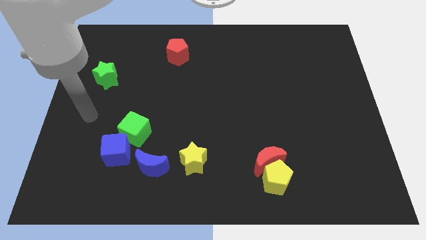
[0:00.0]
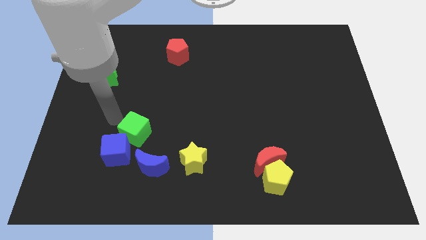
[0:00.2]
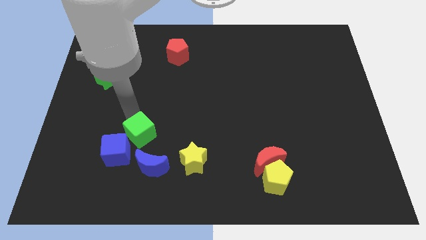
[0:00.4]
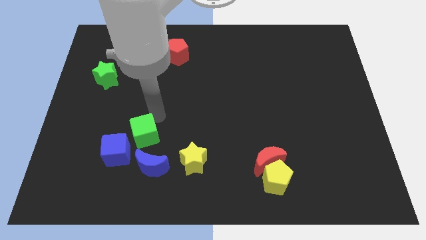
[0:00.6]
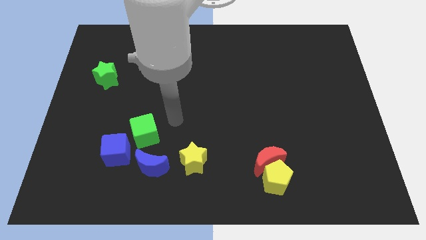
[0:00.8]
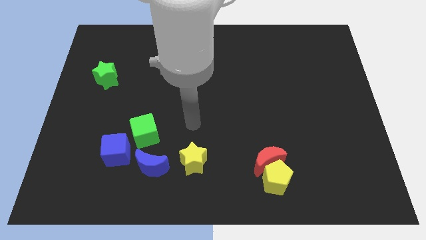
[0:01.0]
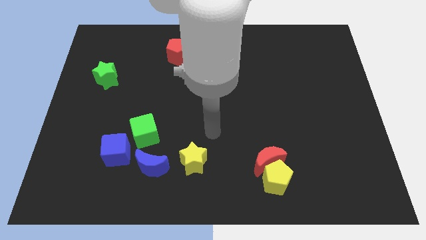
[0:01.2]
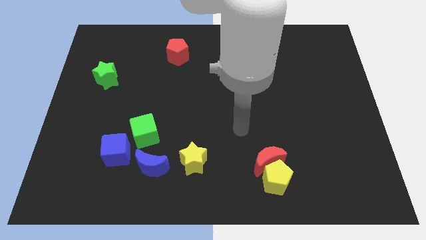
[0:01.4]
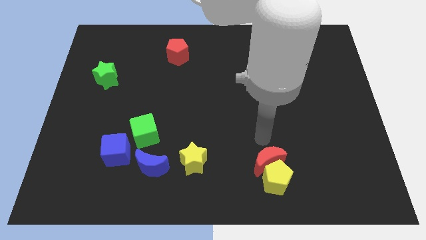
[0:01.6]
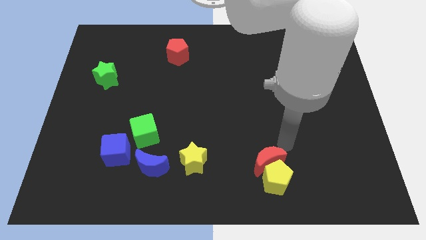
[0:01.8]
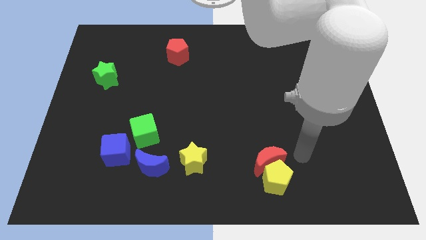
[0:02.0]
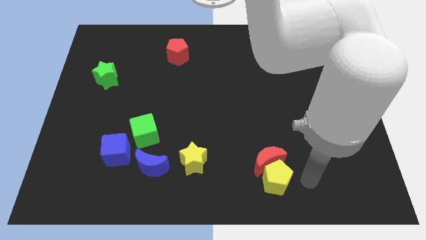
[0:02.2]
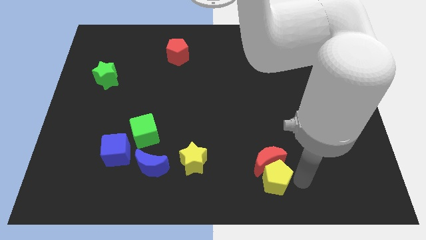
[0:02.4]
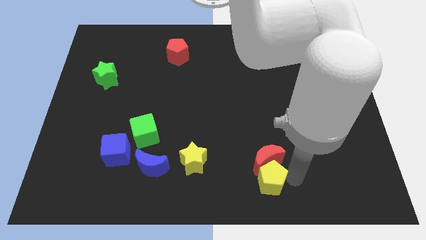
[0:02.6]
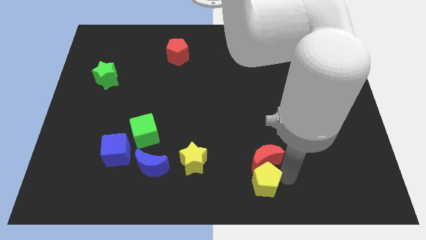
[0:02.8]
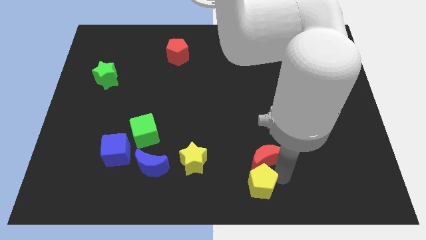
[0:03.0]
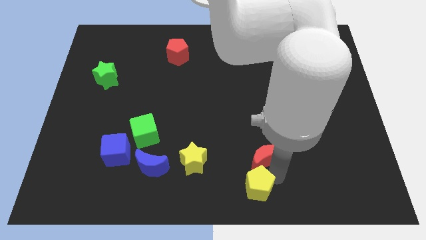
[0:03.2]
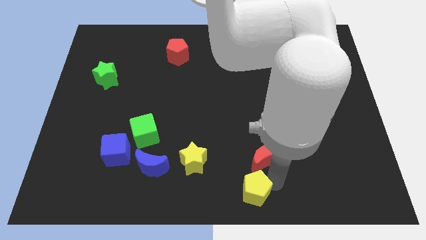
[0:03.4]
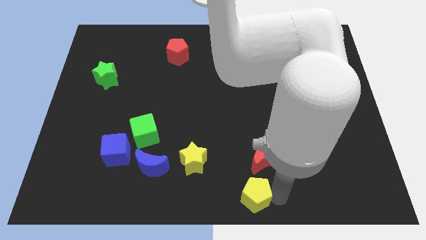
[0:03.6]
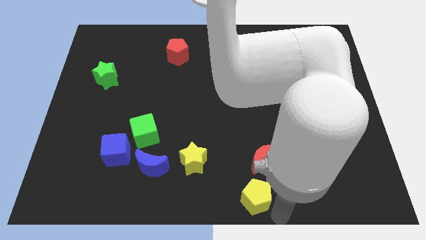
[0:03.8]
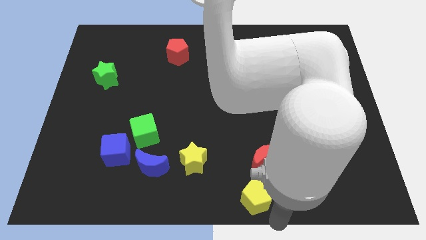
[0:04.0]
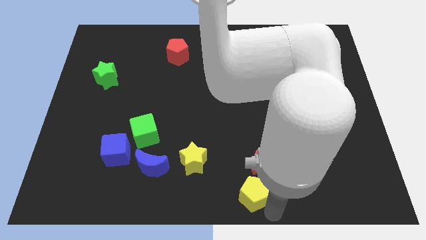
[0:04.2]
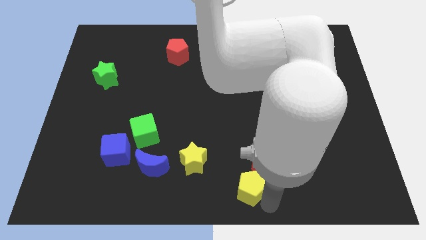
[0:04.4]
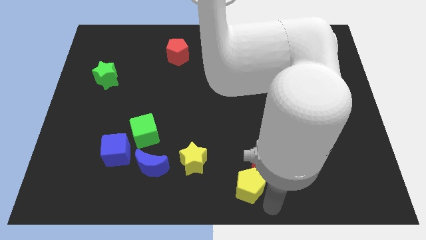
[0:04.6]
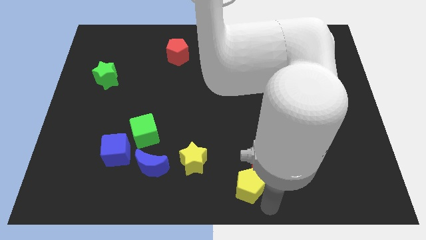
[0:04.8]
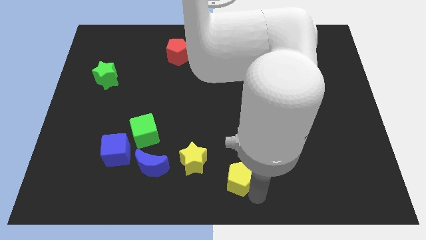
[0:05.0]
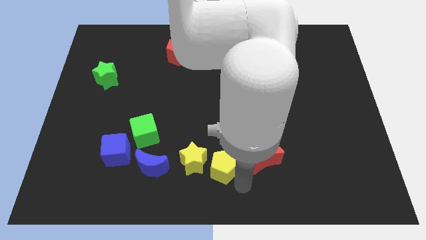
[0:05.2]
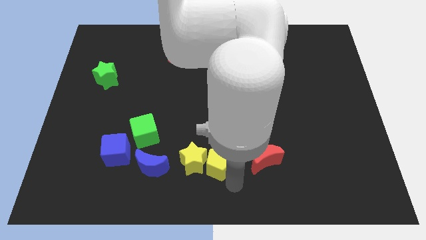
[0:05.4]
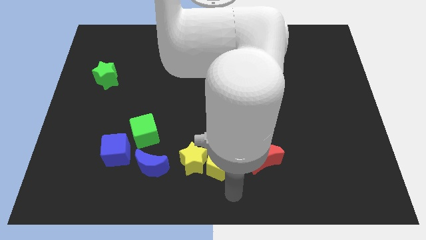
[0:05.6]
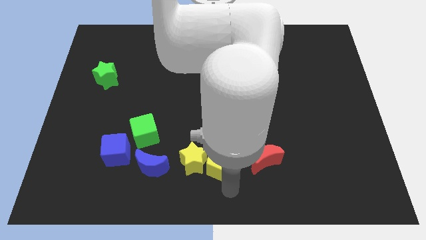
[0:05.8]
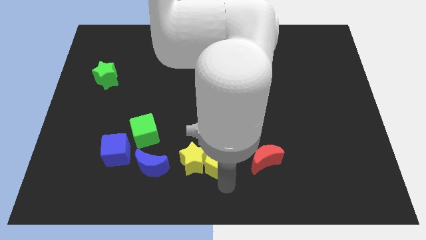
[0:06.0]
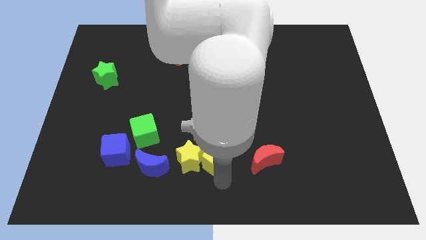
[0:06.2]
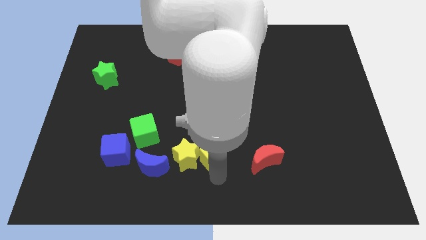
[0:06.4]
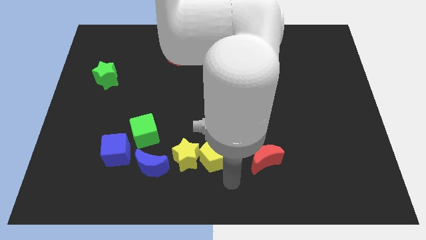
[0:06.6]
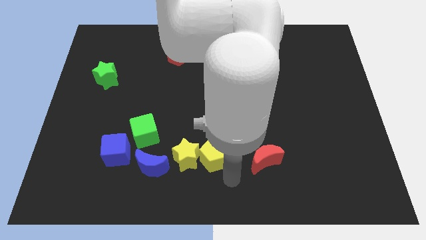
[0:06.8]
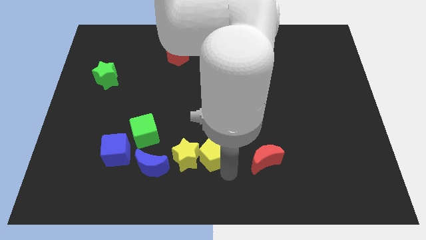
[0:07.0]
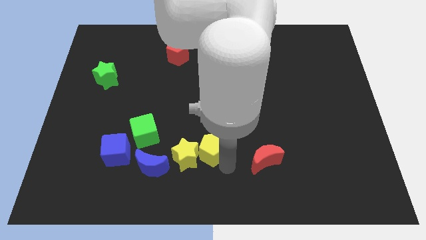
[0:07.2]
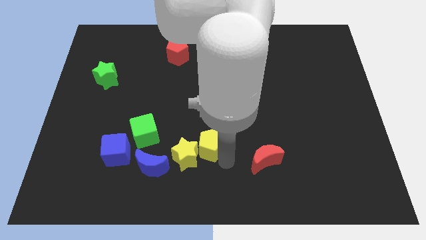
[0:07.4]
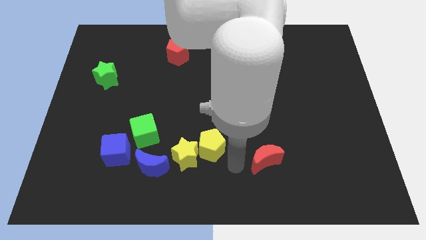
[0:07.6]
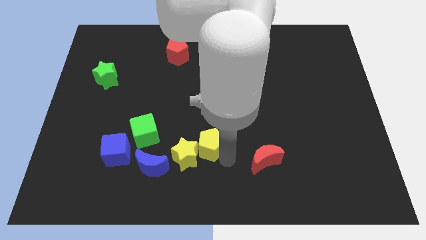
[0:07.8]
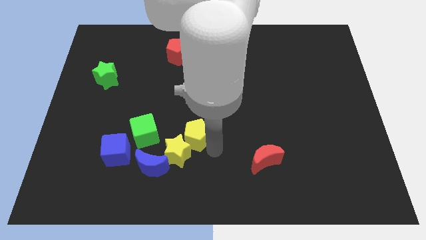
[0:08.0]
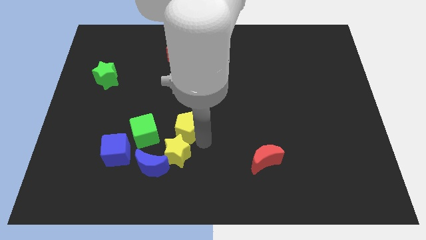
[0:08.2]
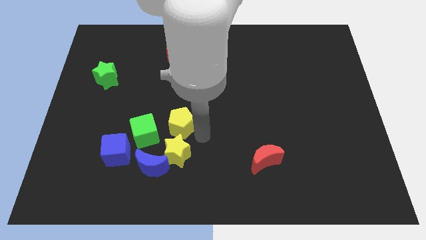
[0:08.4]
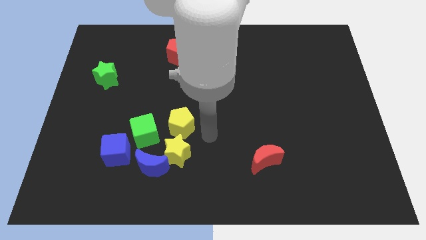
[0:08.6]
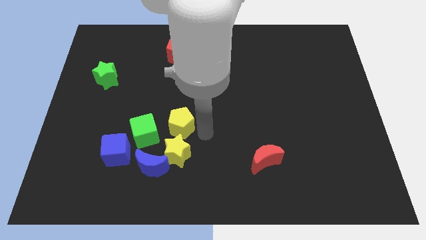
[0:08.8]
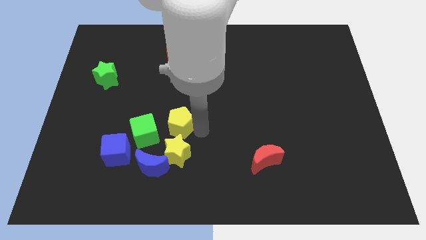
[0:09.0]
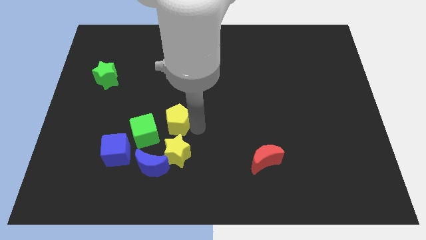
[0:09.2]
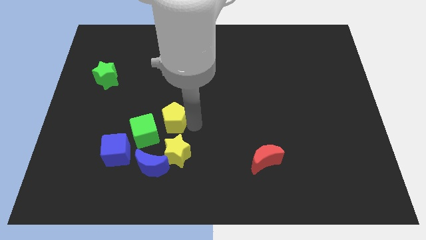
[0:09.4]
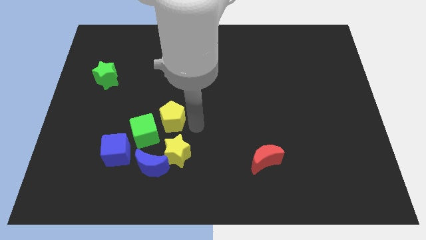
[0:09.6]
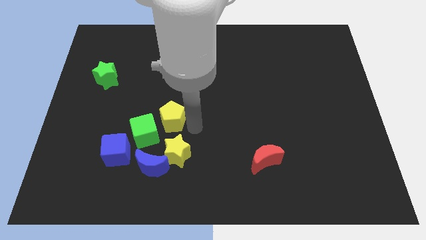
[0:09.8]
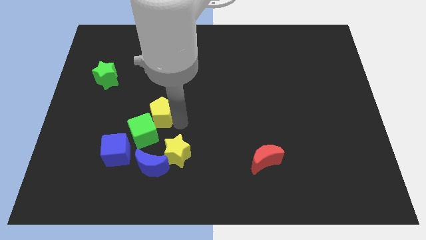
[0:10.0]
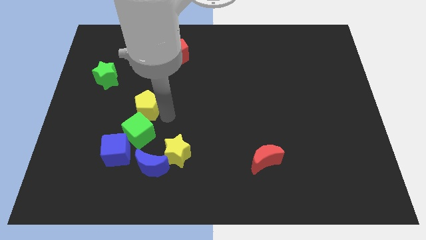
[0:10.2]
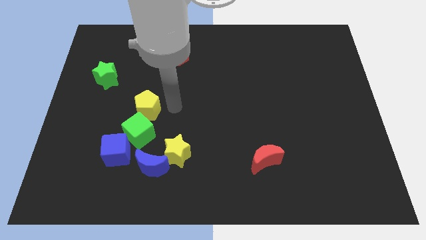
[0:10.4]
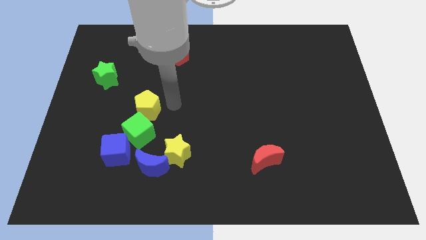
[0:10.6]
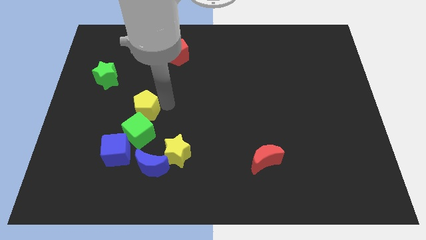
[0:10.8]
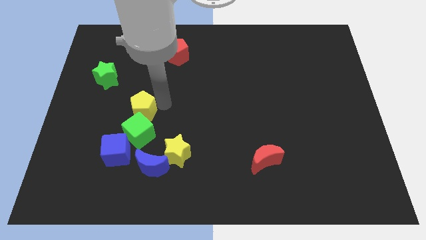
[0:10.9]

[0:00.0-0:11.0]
move the yellow pentagon diagonally up and to the left of the green cube

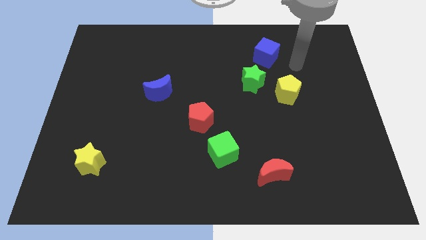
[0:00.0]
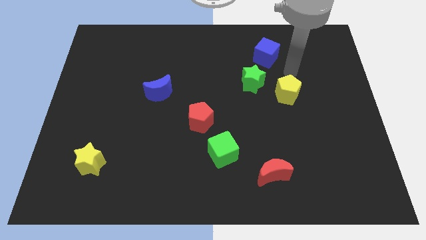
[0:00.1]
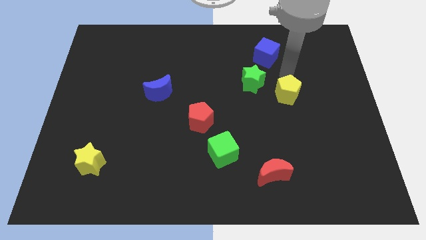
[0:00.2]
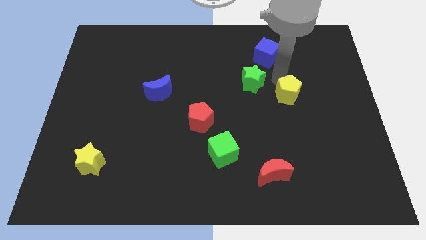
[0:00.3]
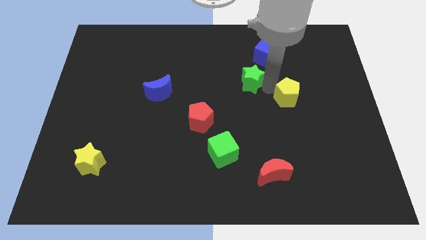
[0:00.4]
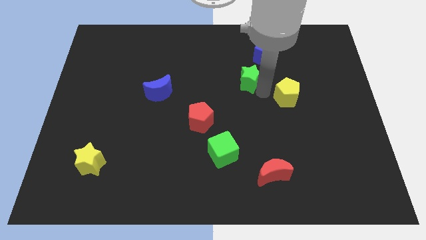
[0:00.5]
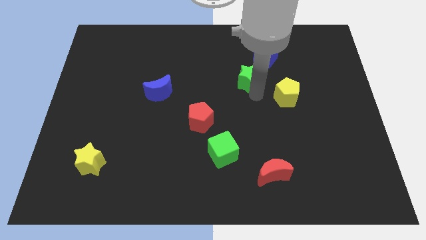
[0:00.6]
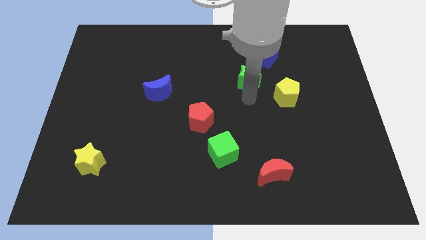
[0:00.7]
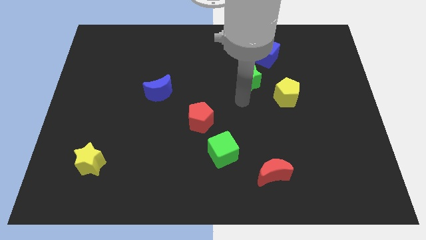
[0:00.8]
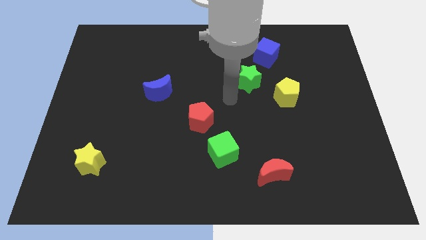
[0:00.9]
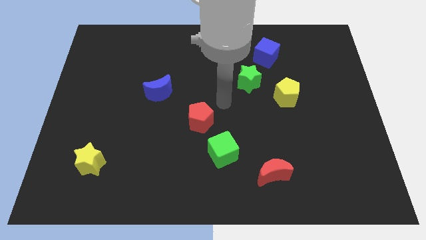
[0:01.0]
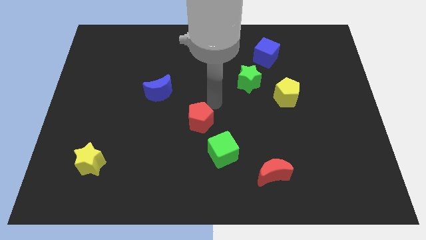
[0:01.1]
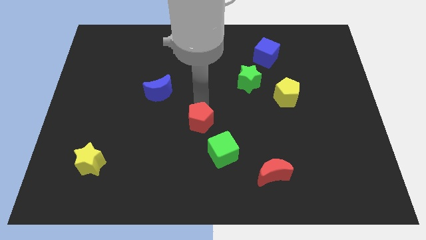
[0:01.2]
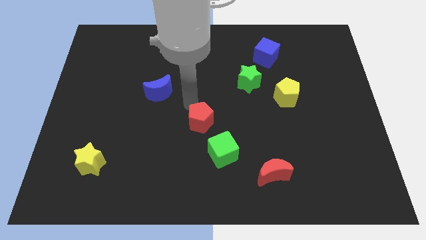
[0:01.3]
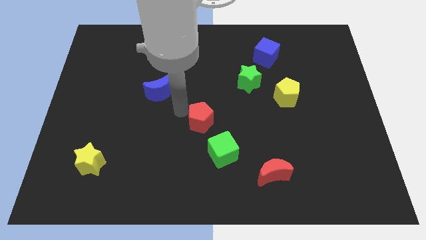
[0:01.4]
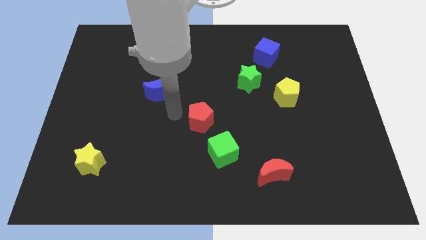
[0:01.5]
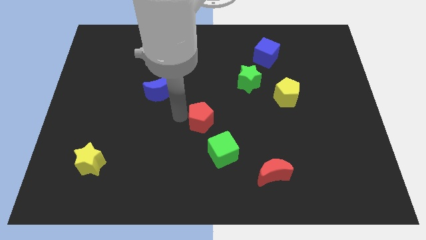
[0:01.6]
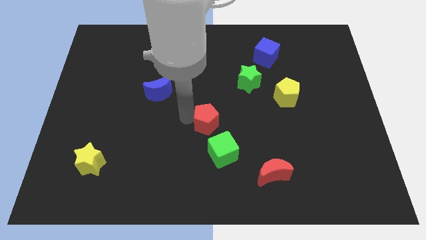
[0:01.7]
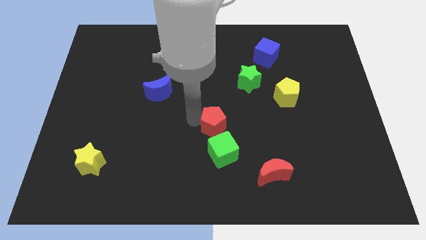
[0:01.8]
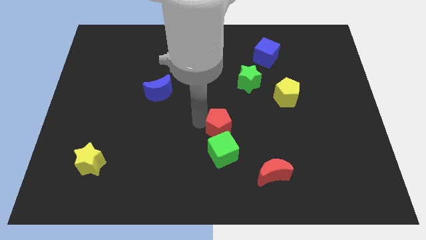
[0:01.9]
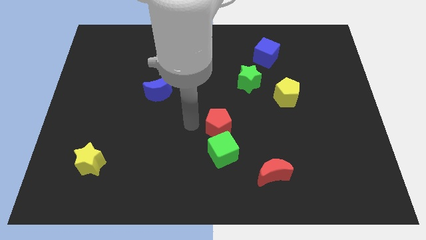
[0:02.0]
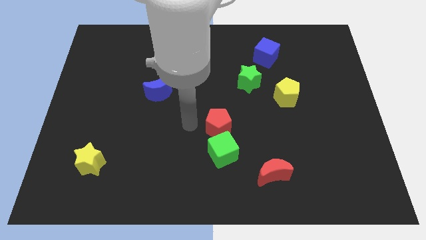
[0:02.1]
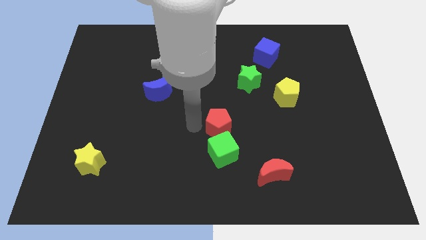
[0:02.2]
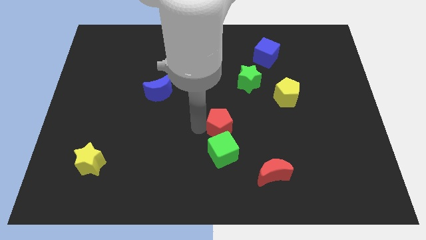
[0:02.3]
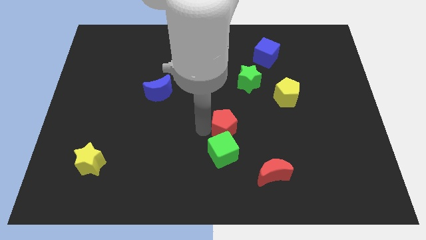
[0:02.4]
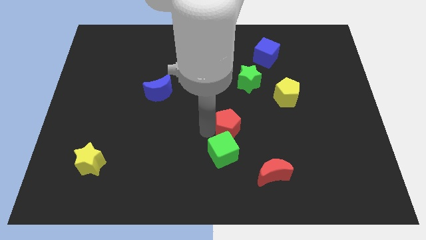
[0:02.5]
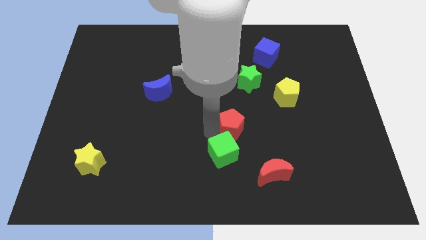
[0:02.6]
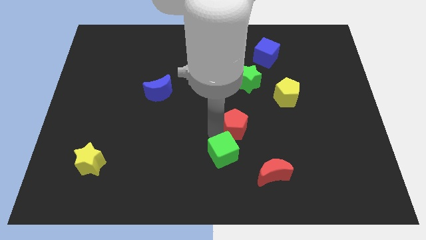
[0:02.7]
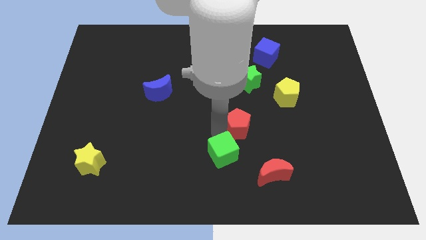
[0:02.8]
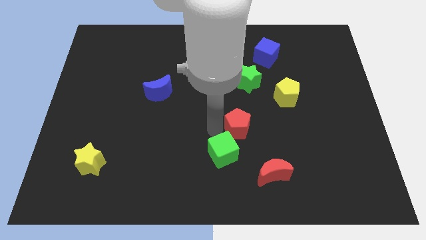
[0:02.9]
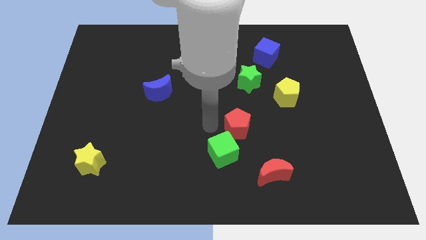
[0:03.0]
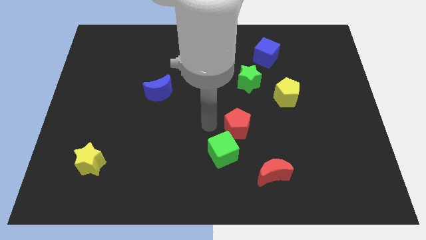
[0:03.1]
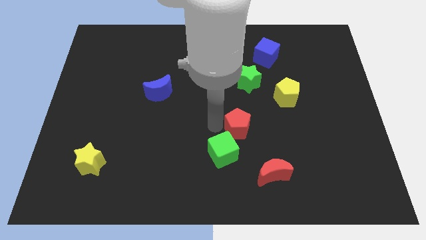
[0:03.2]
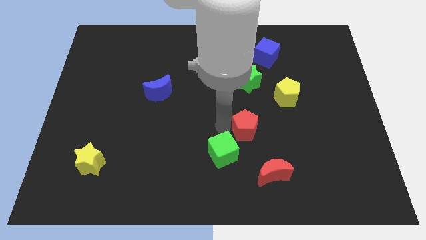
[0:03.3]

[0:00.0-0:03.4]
slide the red pentagon to the top side of the red moon
